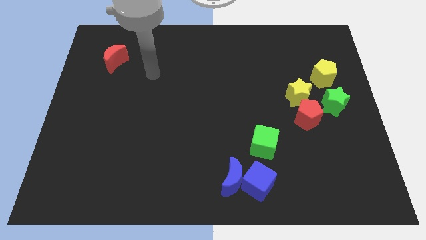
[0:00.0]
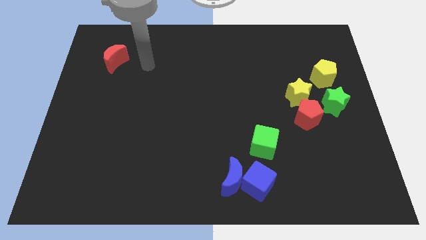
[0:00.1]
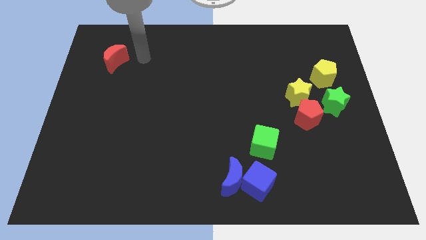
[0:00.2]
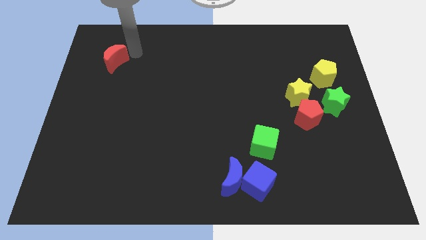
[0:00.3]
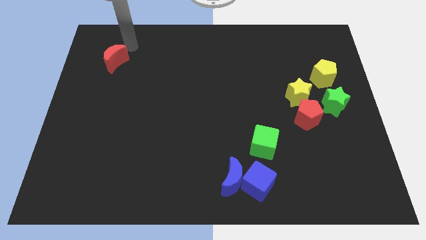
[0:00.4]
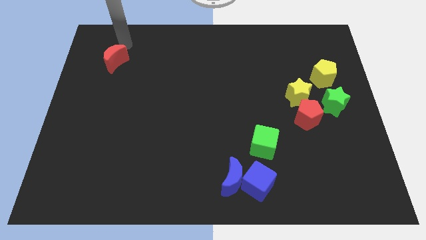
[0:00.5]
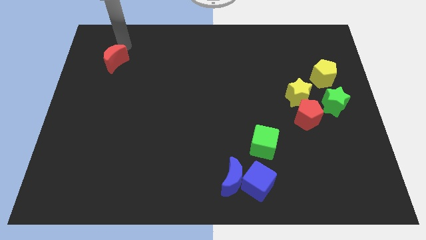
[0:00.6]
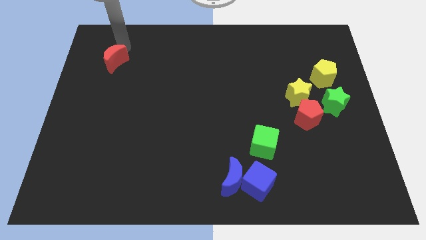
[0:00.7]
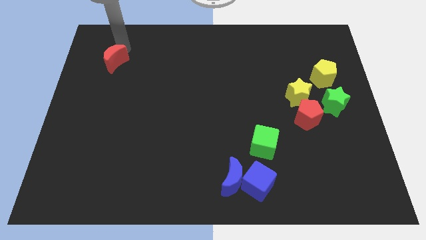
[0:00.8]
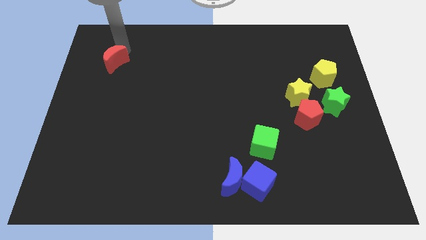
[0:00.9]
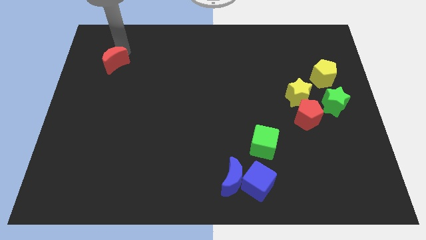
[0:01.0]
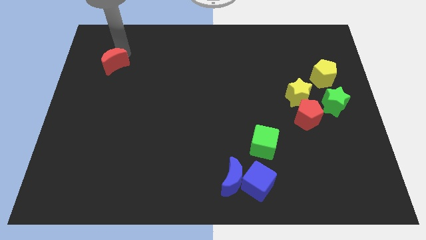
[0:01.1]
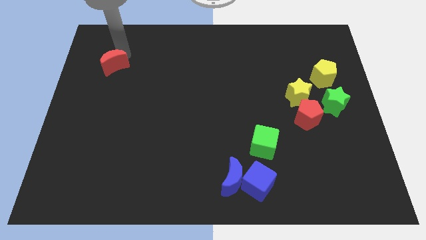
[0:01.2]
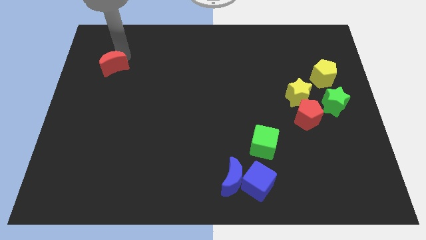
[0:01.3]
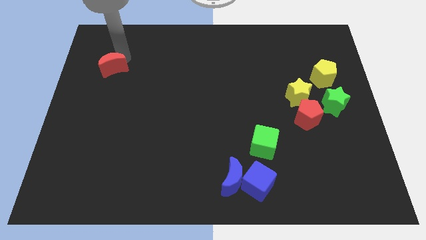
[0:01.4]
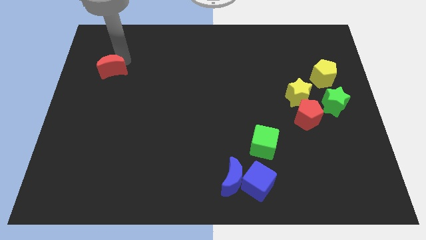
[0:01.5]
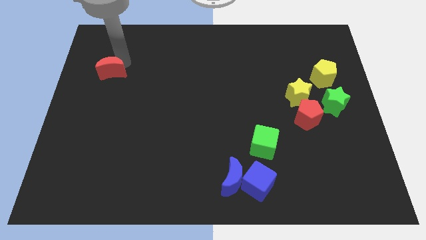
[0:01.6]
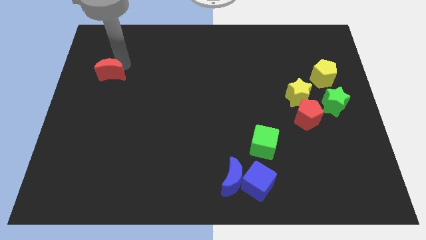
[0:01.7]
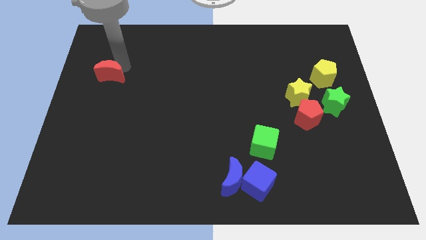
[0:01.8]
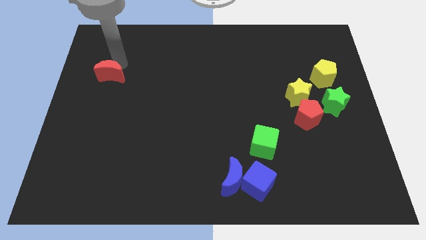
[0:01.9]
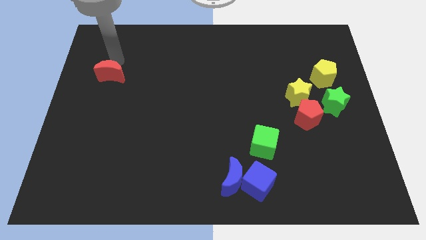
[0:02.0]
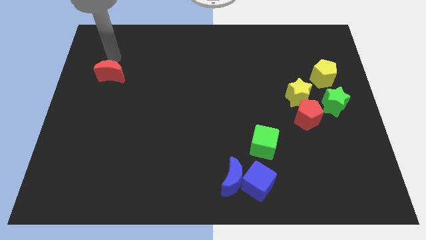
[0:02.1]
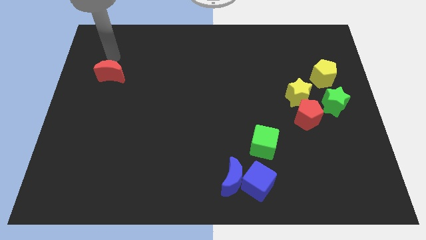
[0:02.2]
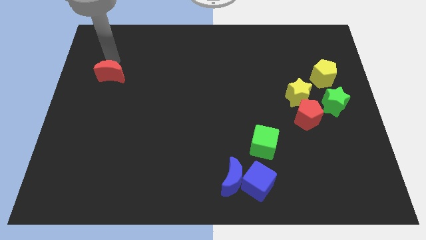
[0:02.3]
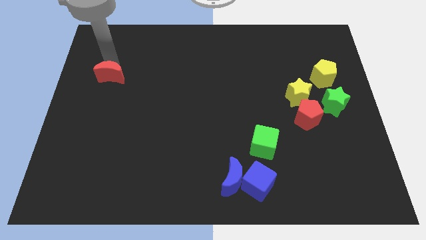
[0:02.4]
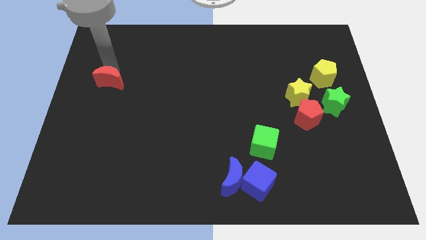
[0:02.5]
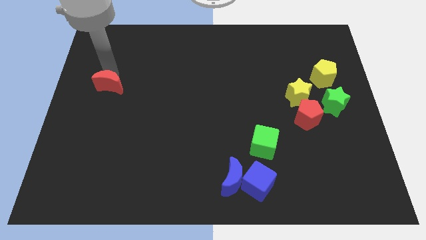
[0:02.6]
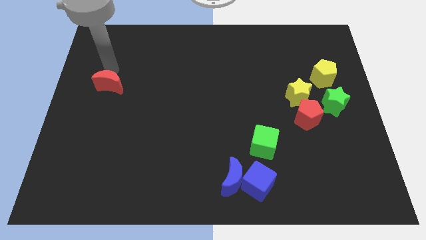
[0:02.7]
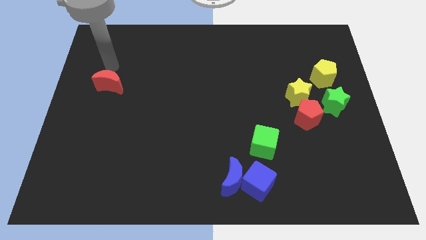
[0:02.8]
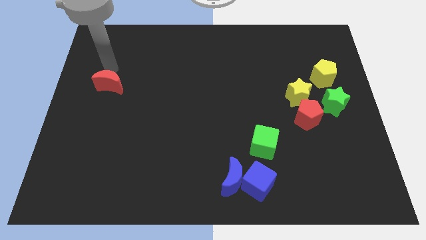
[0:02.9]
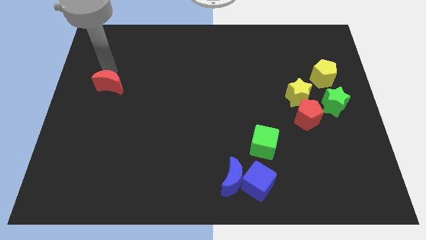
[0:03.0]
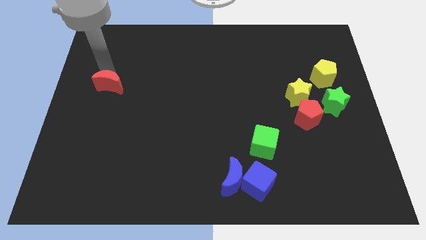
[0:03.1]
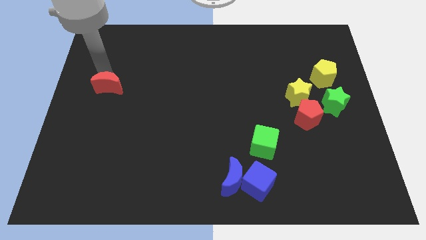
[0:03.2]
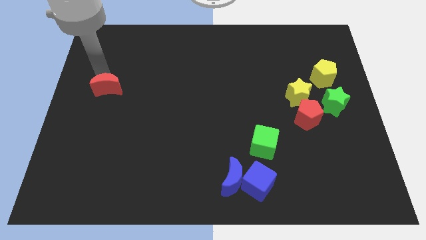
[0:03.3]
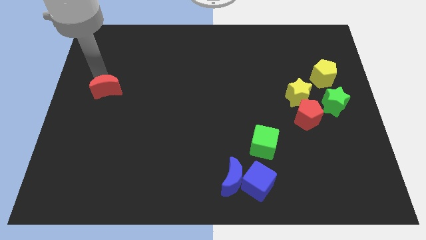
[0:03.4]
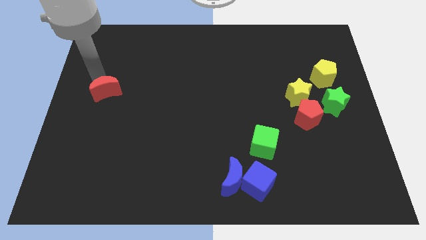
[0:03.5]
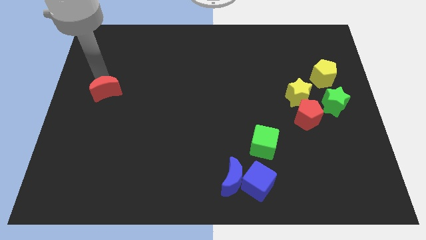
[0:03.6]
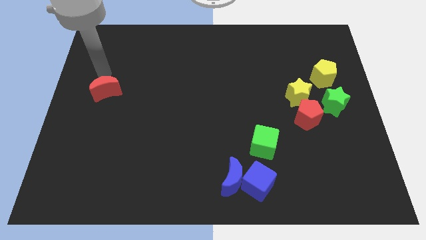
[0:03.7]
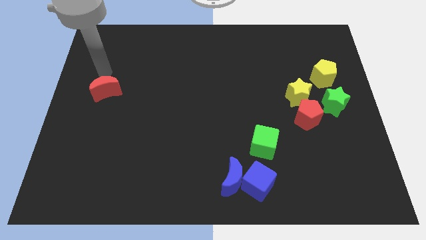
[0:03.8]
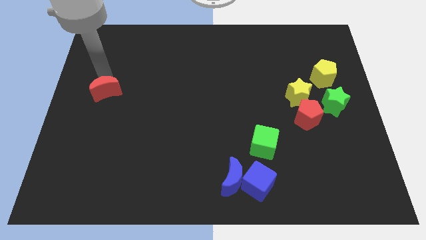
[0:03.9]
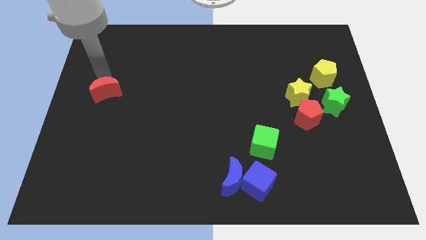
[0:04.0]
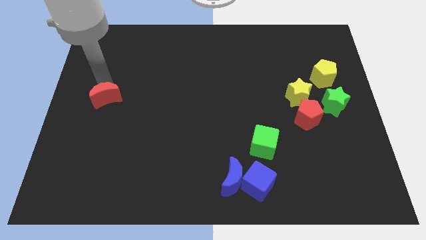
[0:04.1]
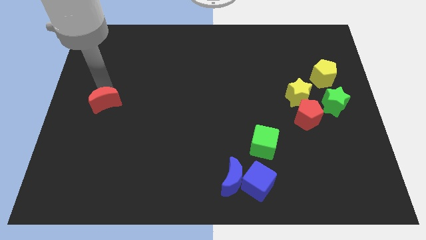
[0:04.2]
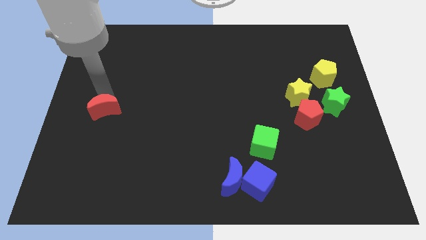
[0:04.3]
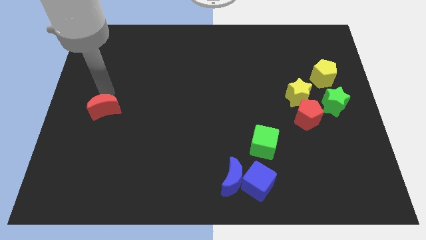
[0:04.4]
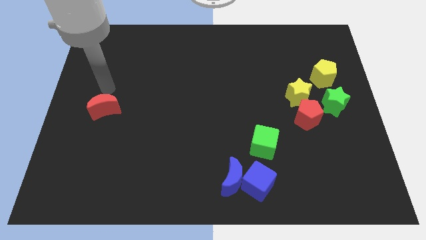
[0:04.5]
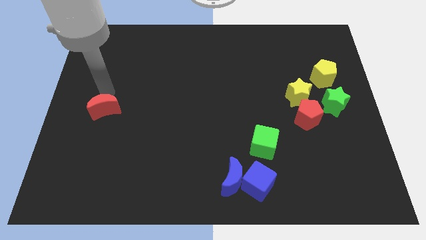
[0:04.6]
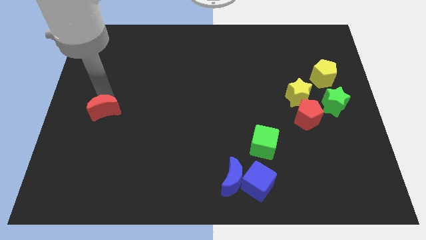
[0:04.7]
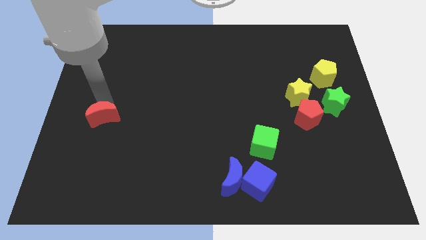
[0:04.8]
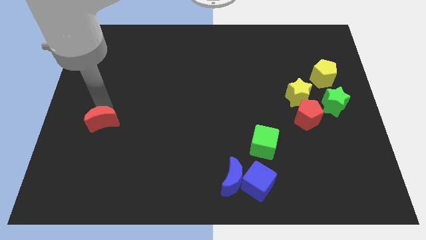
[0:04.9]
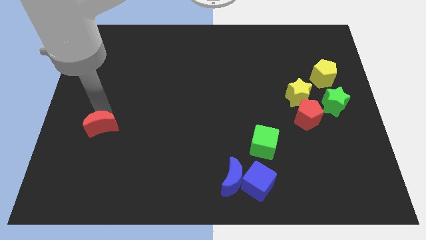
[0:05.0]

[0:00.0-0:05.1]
push the red moon down

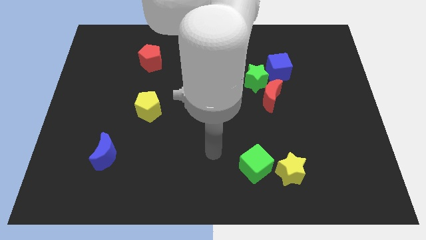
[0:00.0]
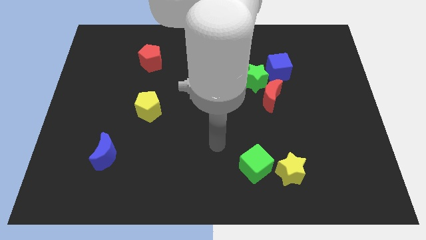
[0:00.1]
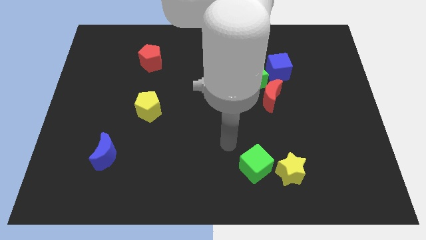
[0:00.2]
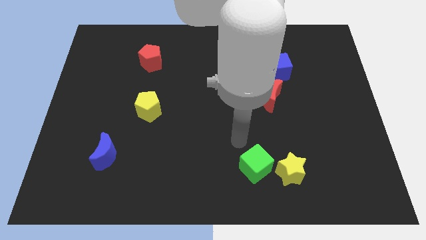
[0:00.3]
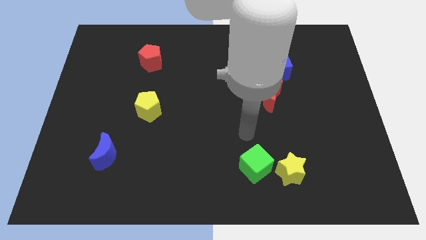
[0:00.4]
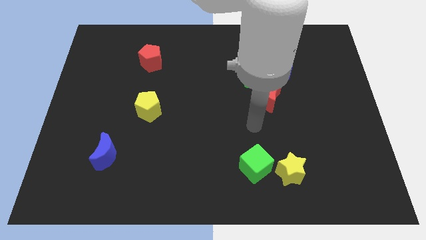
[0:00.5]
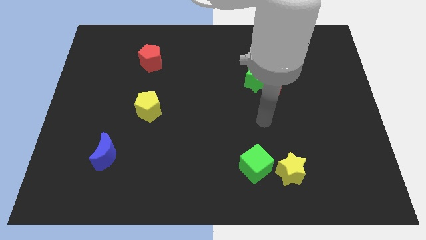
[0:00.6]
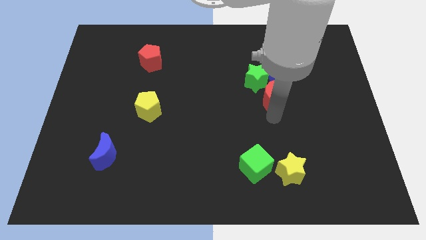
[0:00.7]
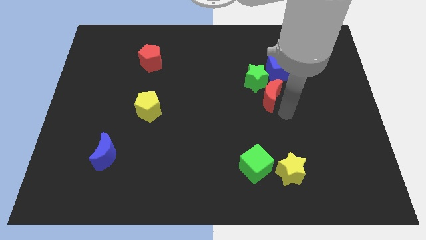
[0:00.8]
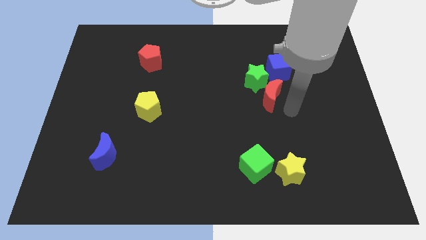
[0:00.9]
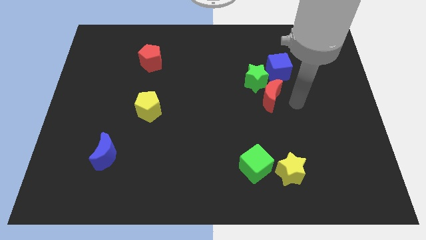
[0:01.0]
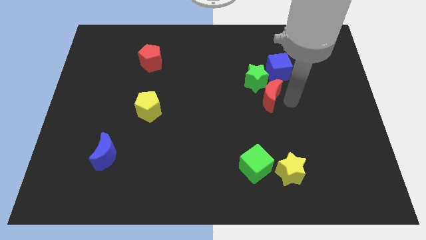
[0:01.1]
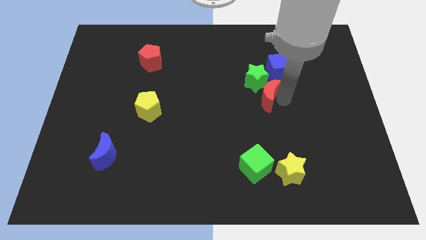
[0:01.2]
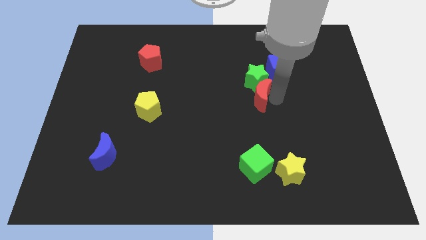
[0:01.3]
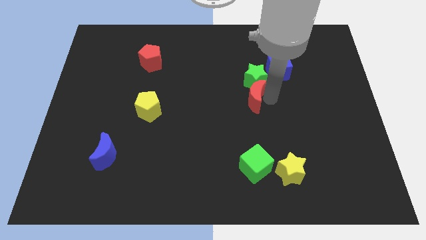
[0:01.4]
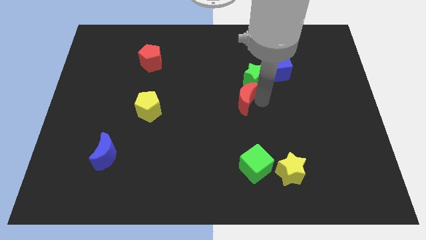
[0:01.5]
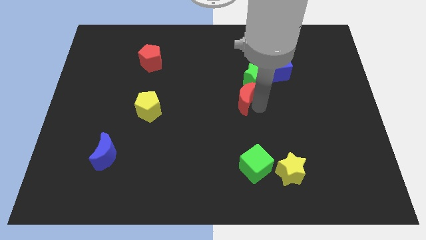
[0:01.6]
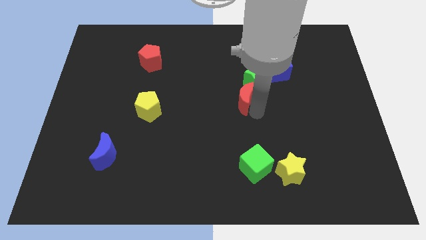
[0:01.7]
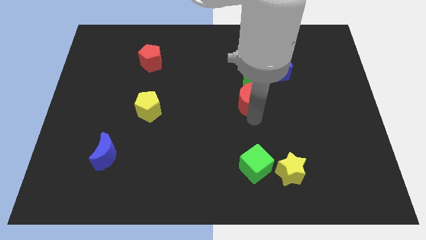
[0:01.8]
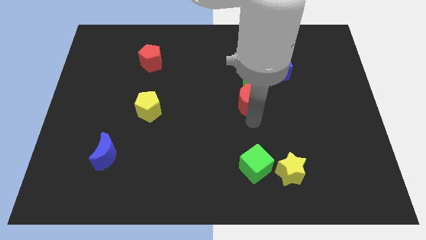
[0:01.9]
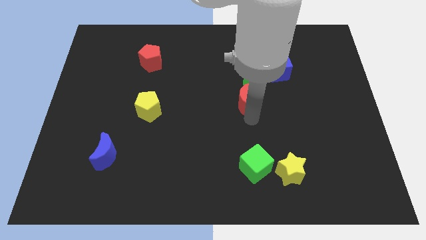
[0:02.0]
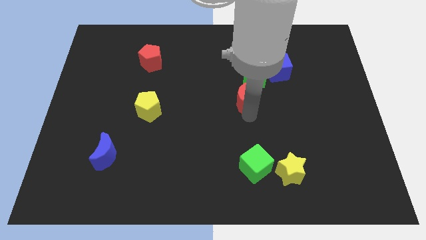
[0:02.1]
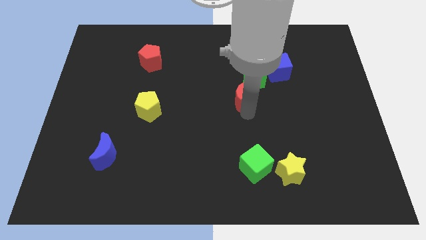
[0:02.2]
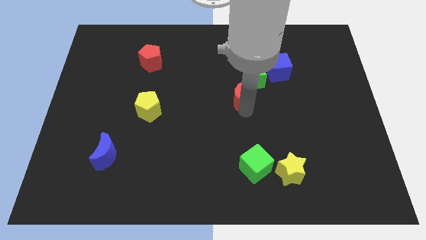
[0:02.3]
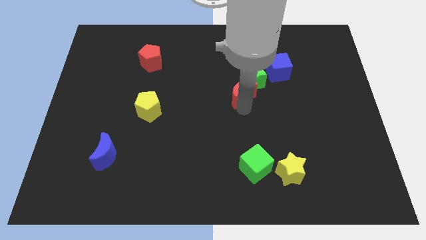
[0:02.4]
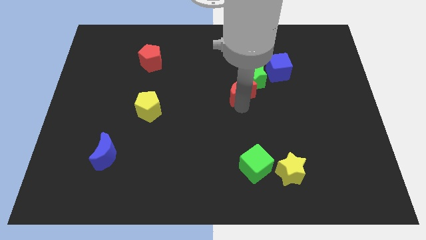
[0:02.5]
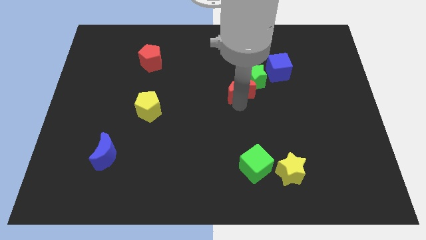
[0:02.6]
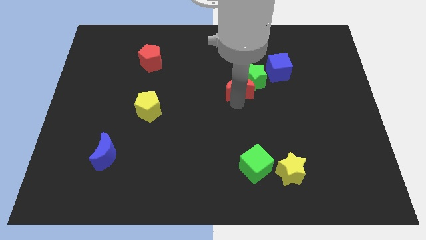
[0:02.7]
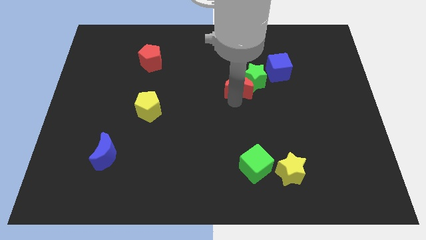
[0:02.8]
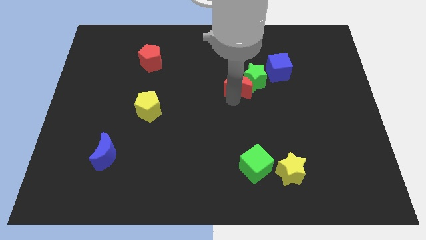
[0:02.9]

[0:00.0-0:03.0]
slightly move the red moon up and then left

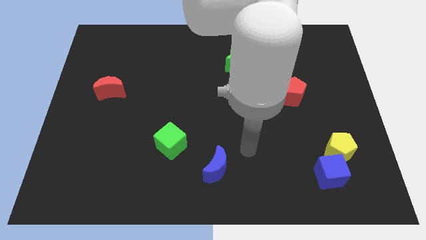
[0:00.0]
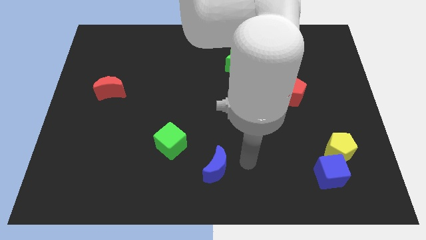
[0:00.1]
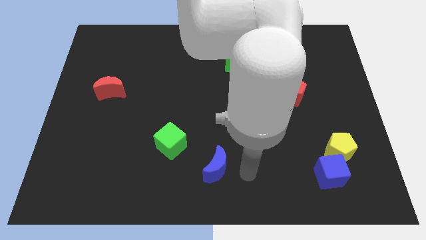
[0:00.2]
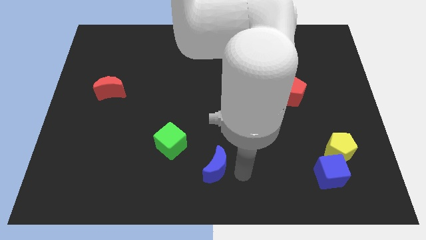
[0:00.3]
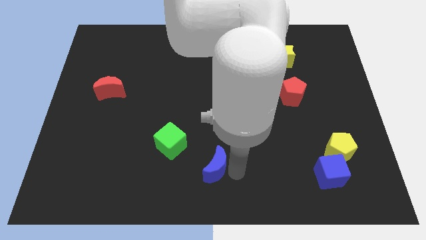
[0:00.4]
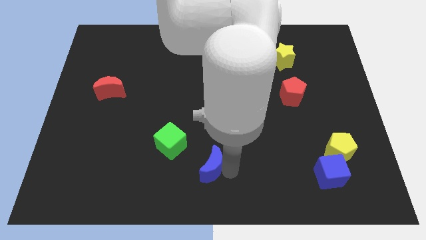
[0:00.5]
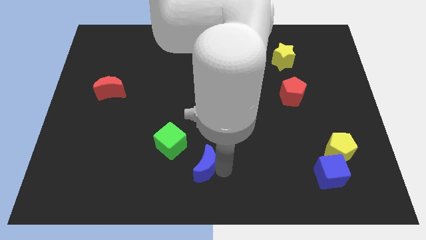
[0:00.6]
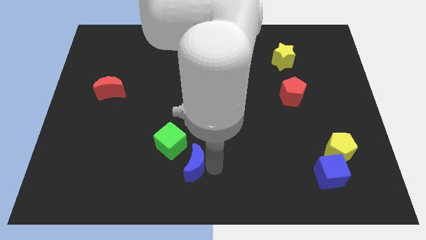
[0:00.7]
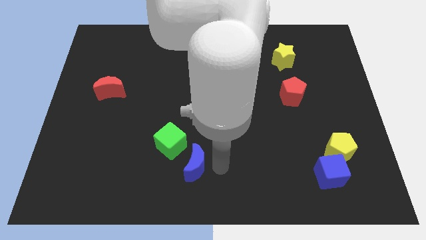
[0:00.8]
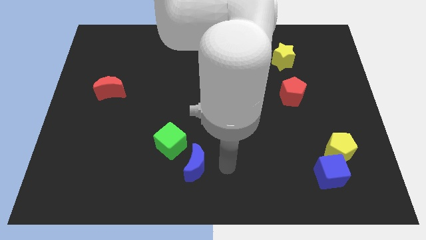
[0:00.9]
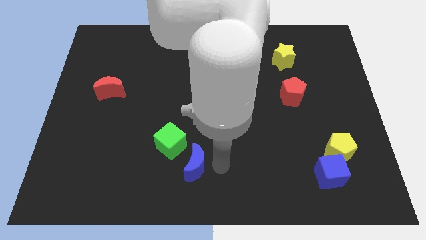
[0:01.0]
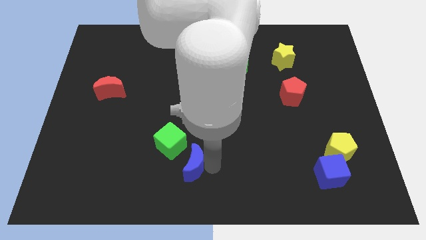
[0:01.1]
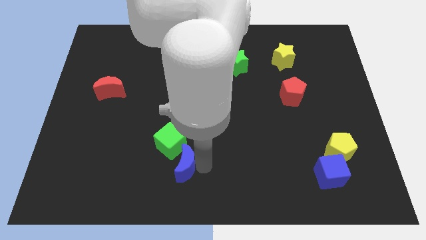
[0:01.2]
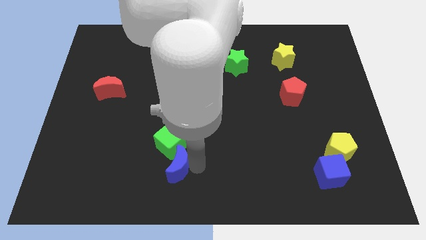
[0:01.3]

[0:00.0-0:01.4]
push the blue moon to the left slightly
